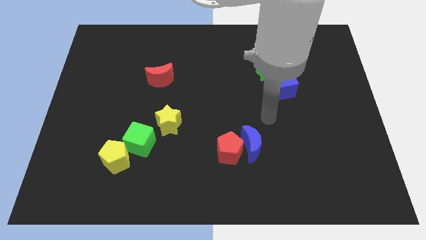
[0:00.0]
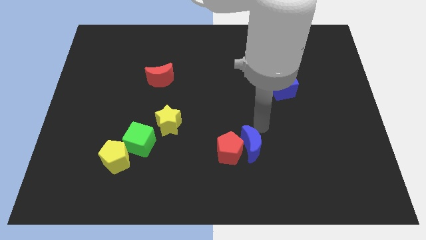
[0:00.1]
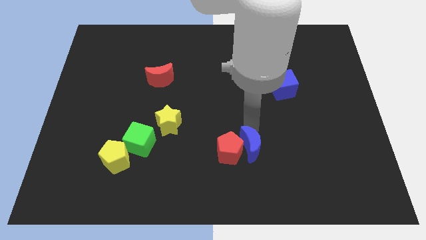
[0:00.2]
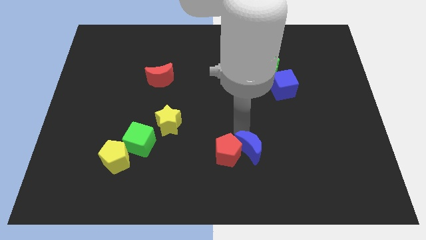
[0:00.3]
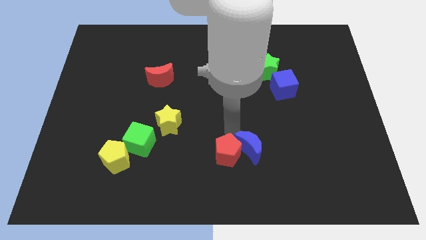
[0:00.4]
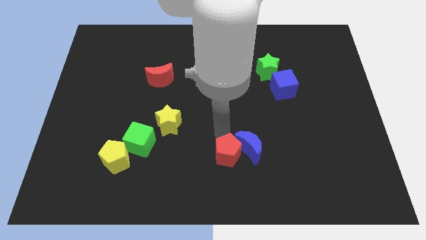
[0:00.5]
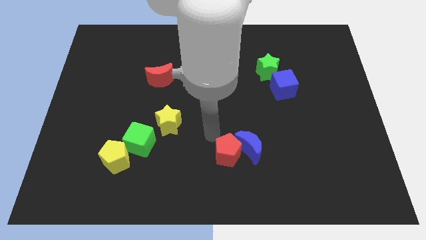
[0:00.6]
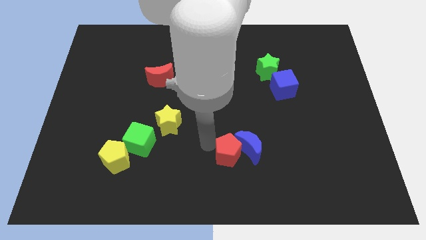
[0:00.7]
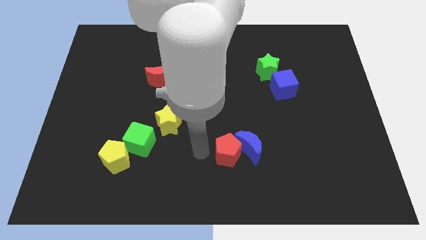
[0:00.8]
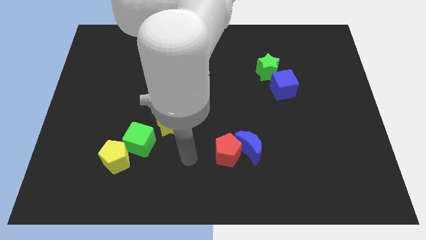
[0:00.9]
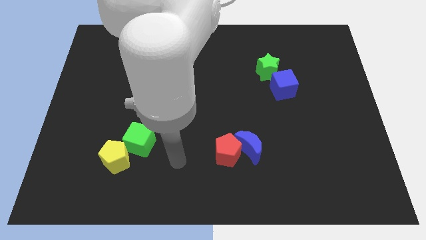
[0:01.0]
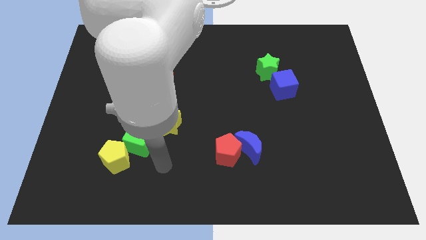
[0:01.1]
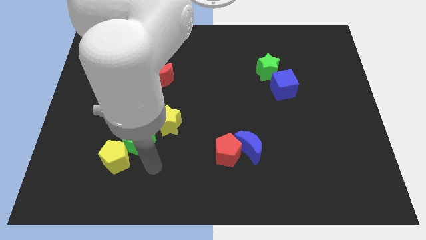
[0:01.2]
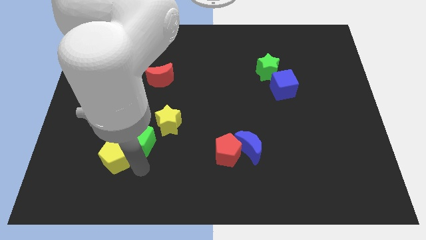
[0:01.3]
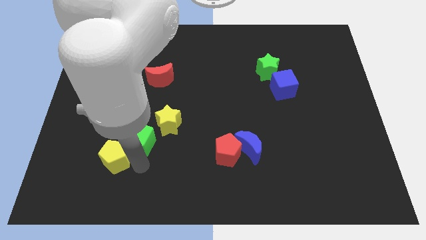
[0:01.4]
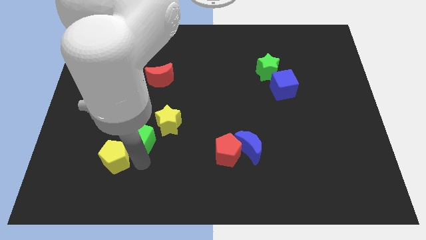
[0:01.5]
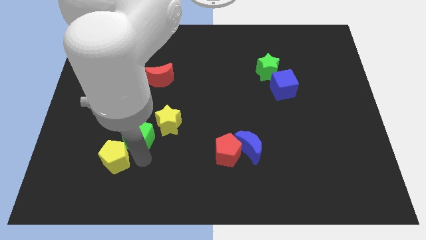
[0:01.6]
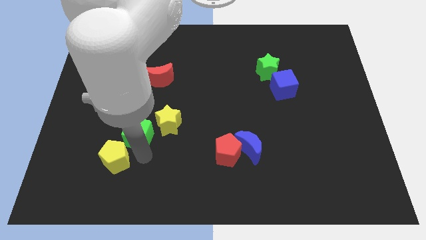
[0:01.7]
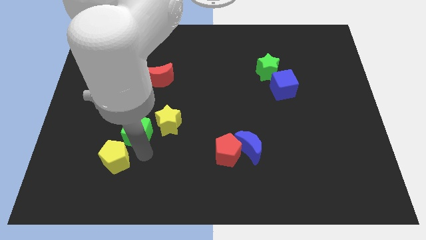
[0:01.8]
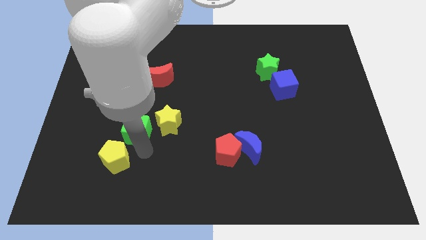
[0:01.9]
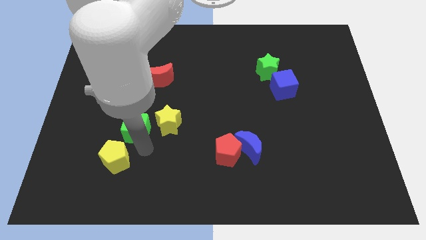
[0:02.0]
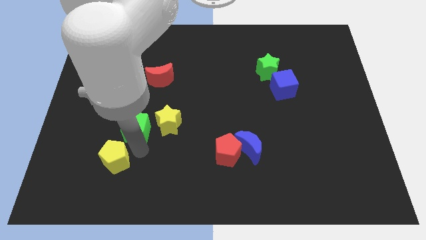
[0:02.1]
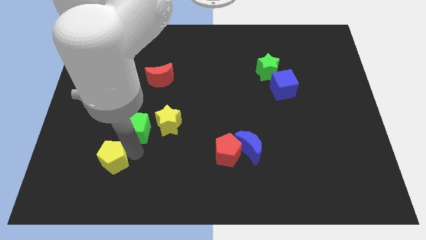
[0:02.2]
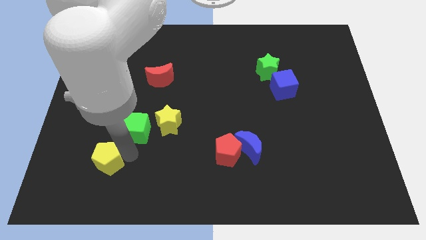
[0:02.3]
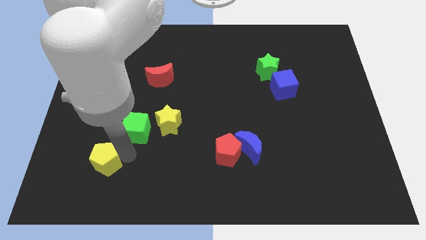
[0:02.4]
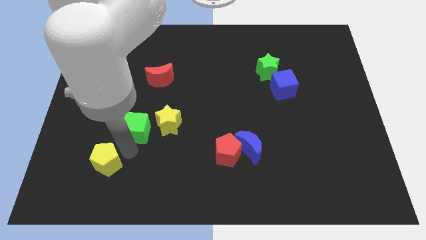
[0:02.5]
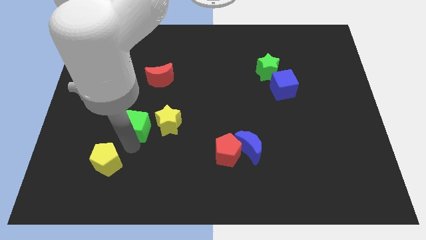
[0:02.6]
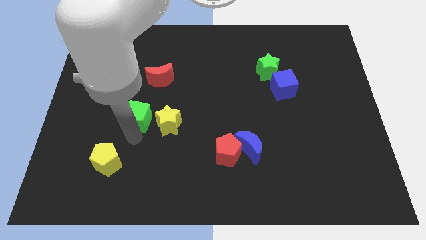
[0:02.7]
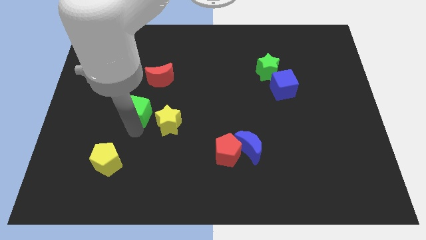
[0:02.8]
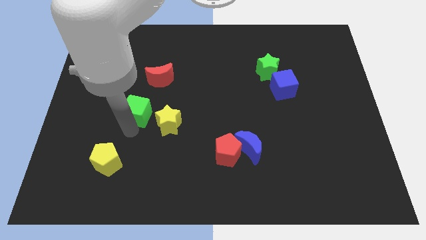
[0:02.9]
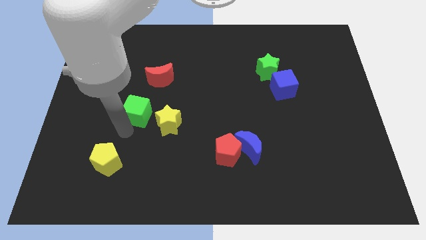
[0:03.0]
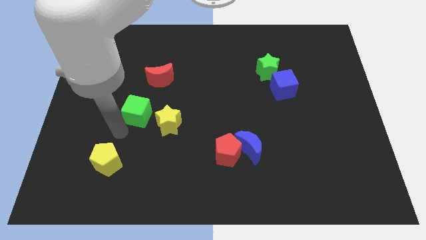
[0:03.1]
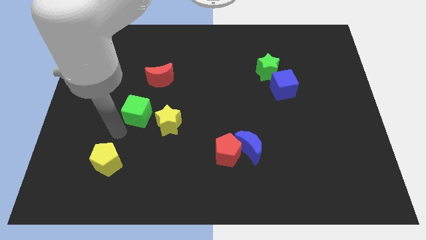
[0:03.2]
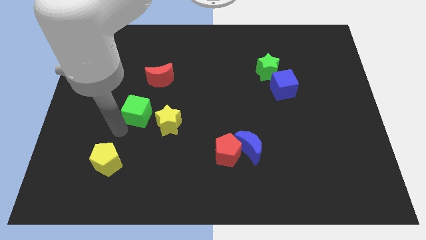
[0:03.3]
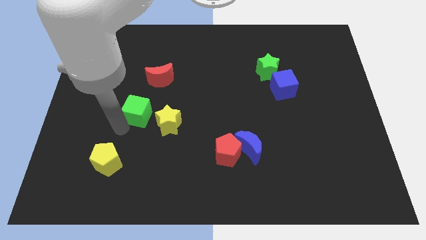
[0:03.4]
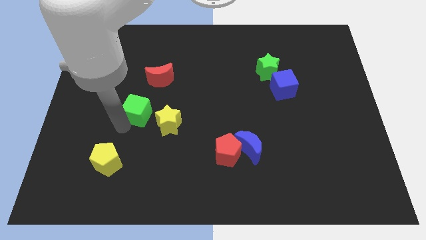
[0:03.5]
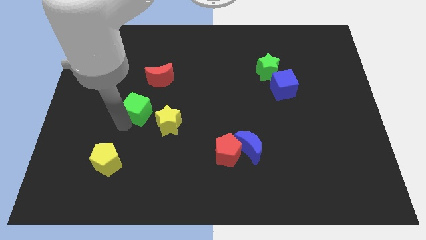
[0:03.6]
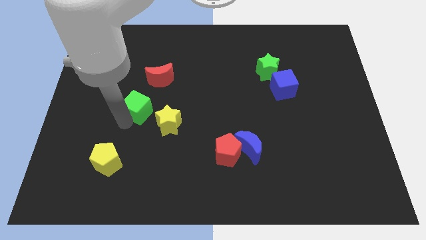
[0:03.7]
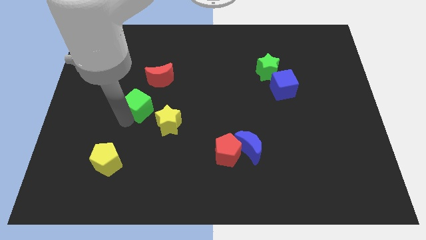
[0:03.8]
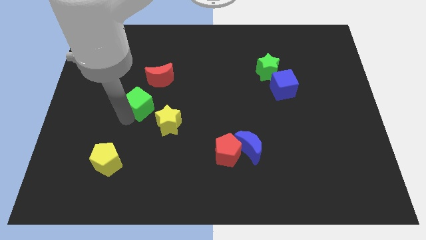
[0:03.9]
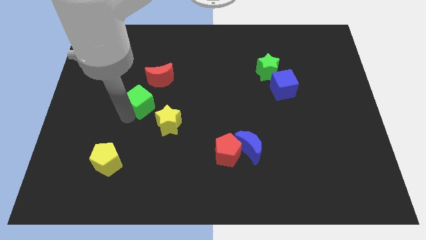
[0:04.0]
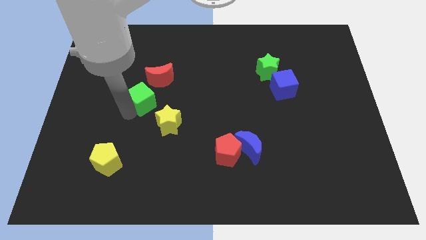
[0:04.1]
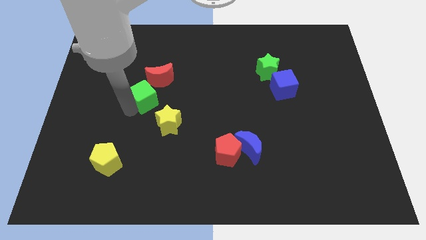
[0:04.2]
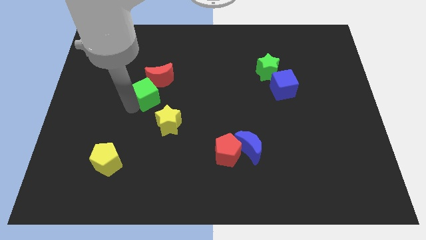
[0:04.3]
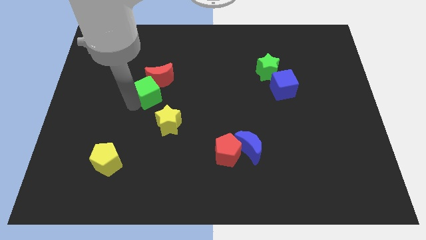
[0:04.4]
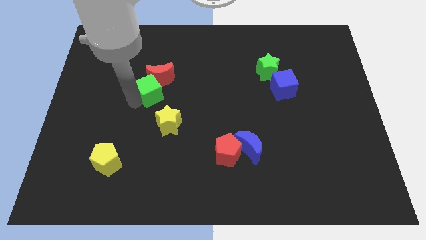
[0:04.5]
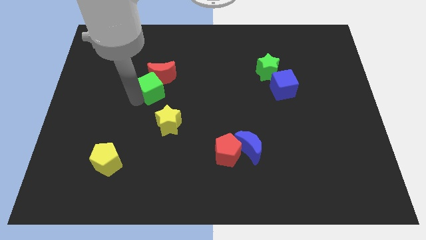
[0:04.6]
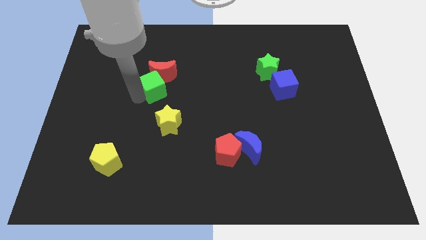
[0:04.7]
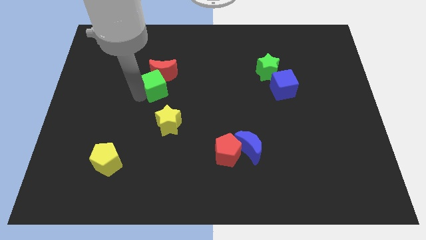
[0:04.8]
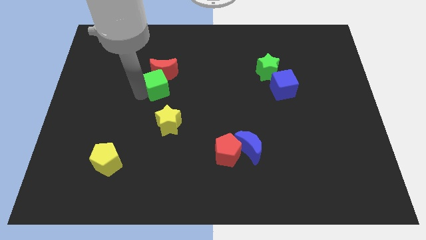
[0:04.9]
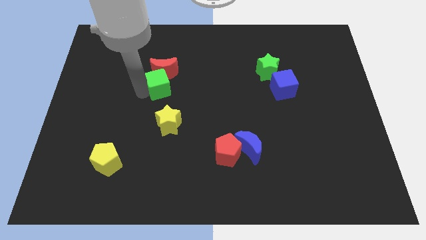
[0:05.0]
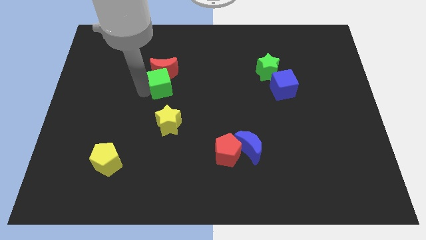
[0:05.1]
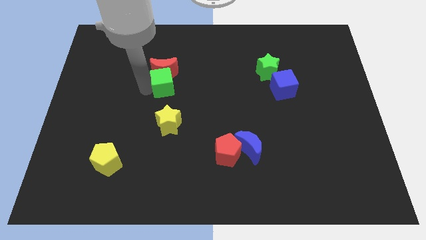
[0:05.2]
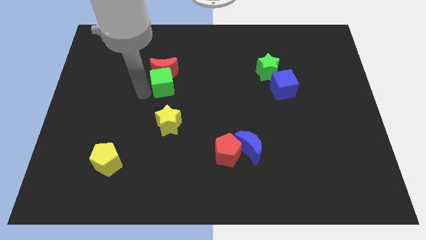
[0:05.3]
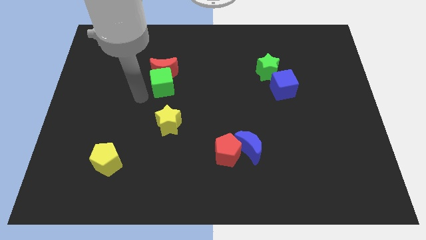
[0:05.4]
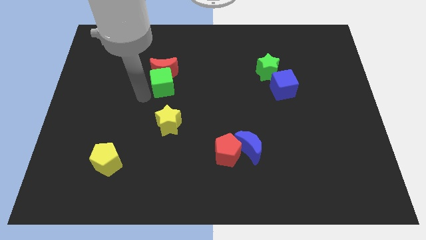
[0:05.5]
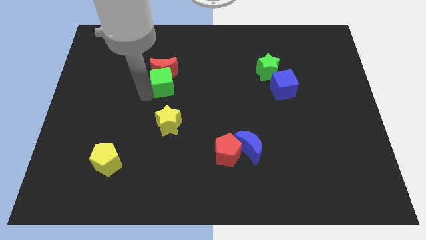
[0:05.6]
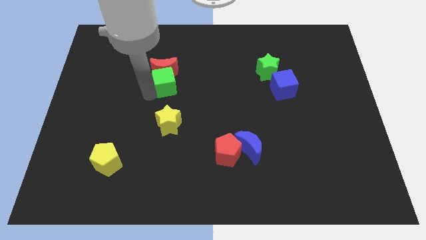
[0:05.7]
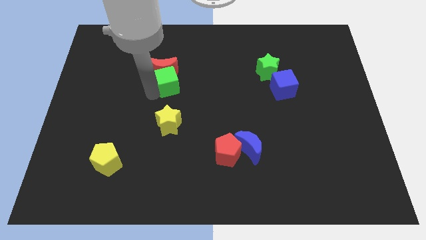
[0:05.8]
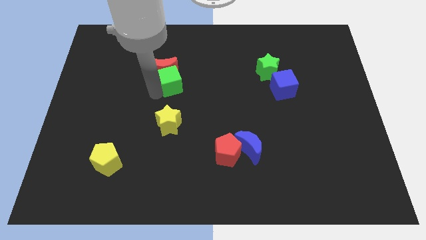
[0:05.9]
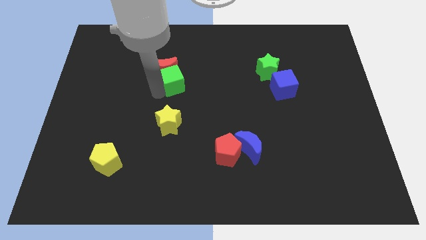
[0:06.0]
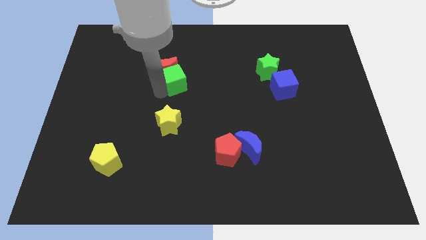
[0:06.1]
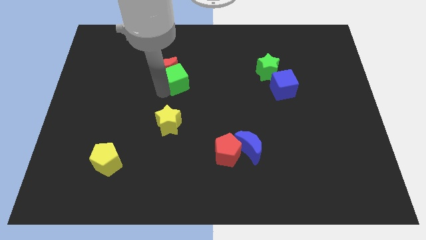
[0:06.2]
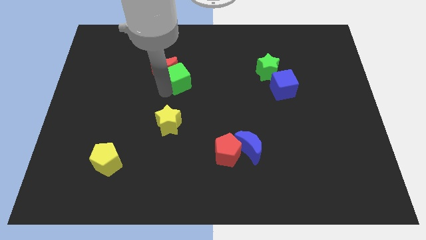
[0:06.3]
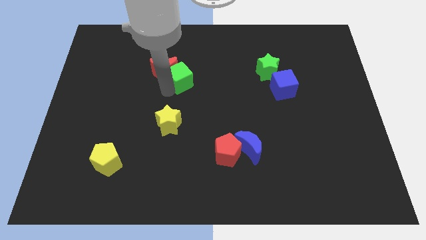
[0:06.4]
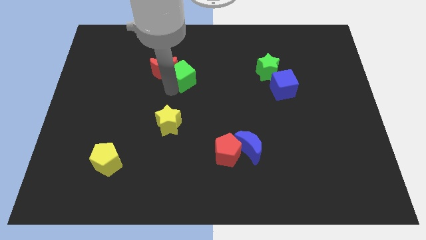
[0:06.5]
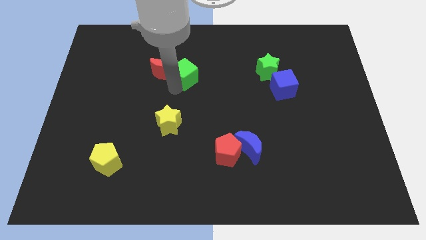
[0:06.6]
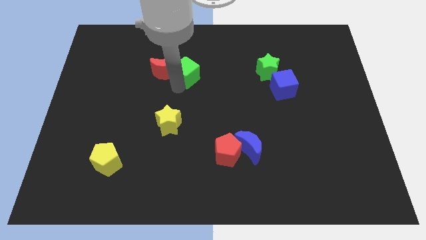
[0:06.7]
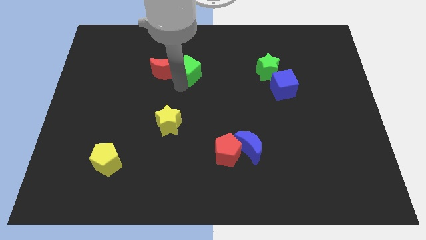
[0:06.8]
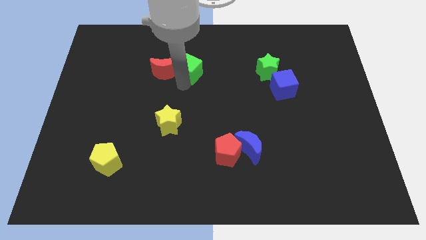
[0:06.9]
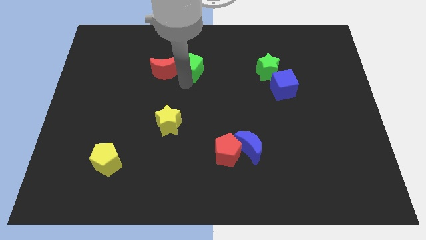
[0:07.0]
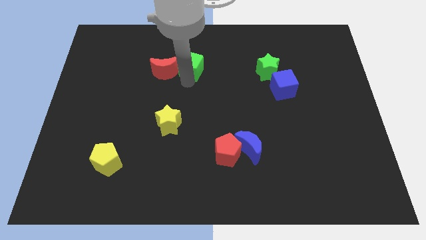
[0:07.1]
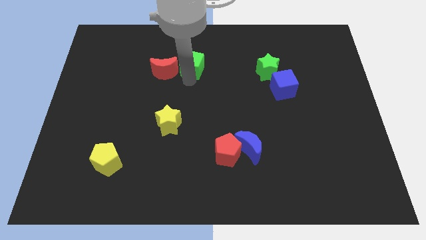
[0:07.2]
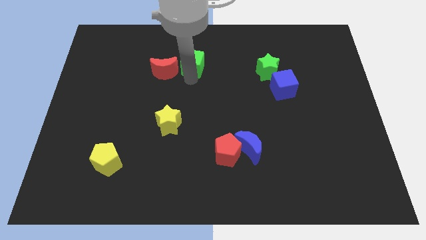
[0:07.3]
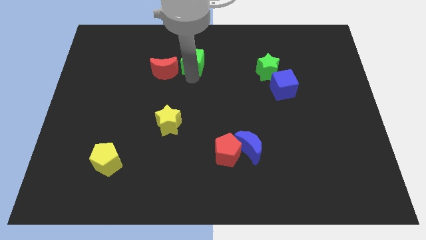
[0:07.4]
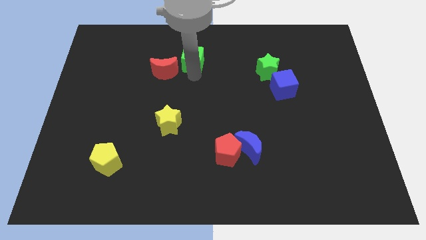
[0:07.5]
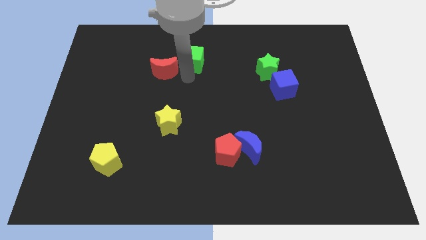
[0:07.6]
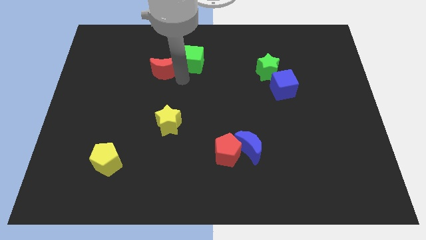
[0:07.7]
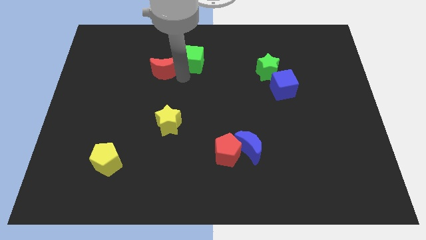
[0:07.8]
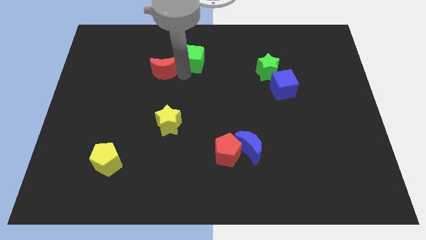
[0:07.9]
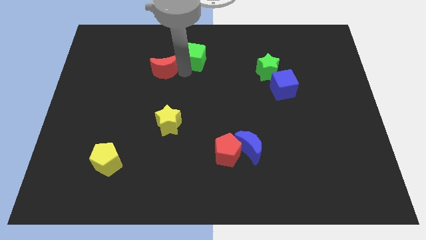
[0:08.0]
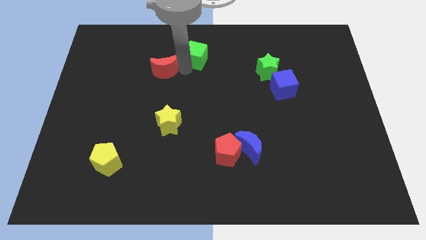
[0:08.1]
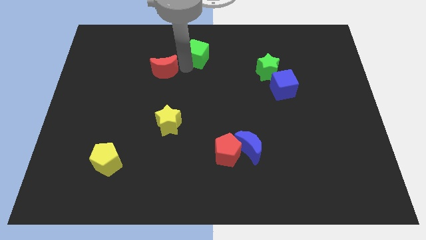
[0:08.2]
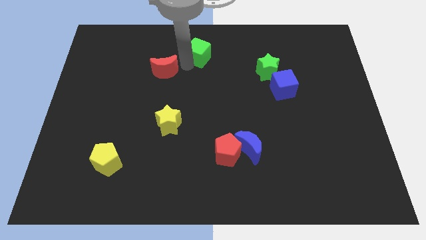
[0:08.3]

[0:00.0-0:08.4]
push the green cube to the top
